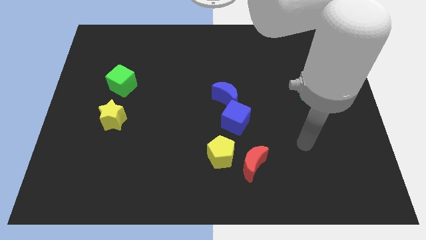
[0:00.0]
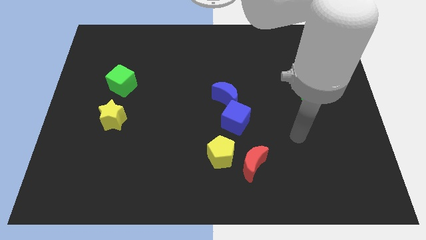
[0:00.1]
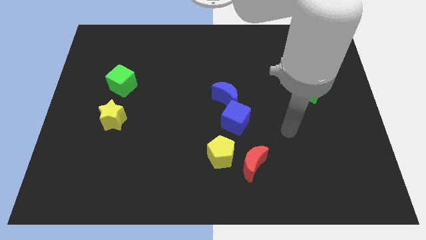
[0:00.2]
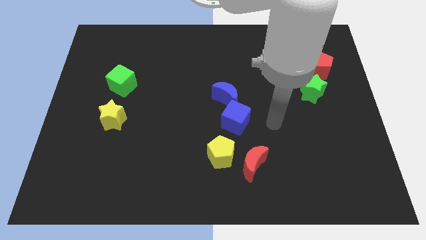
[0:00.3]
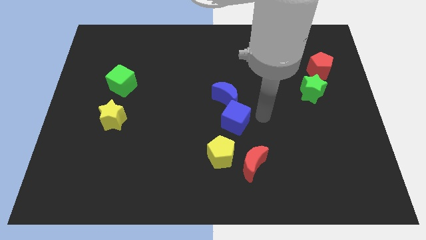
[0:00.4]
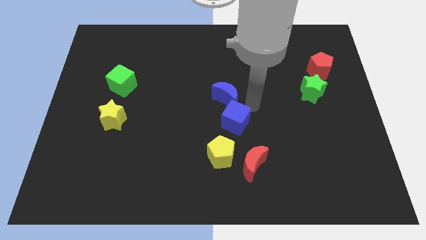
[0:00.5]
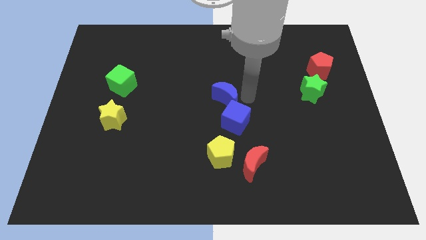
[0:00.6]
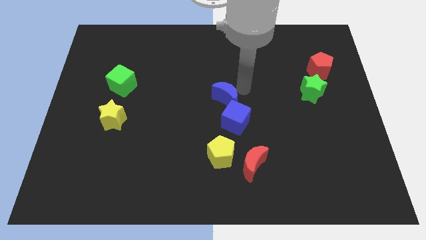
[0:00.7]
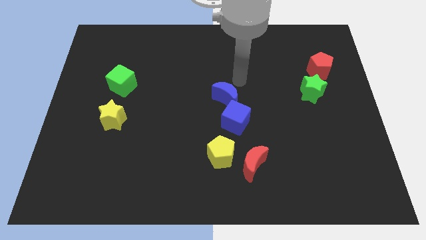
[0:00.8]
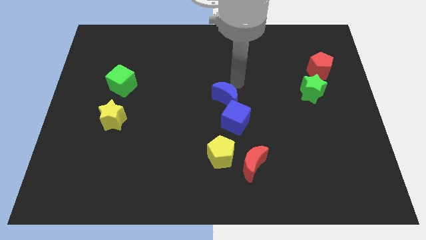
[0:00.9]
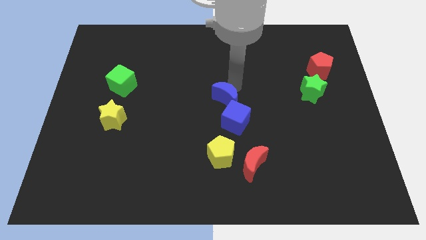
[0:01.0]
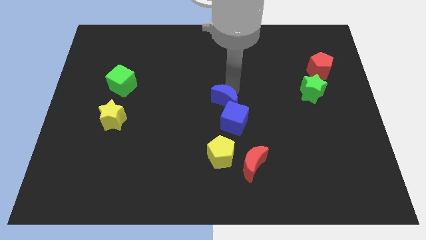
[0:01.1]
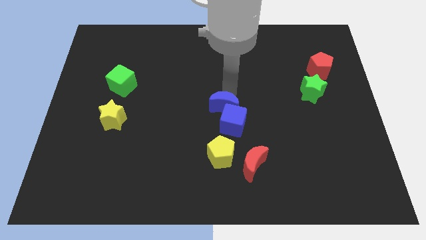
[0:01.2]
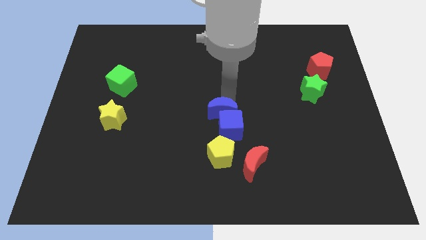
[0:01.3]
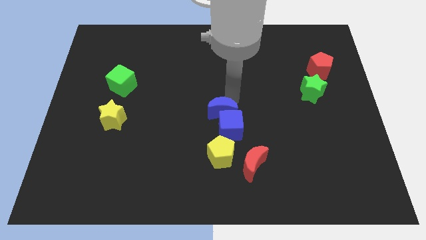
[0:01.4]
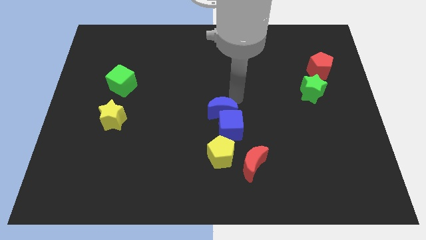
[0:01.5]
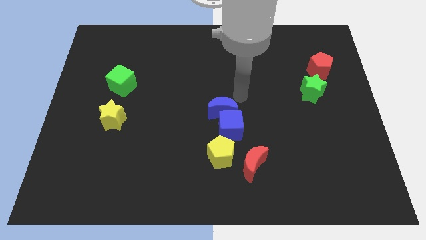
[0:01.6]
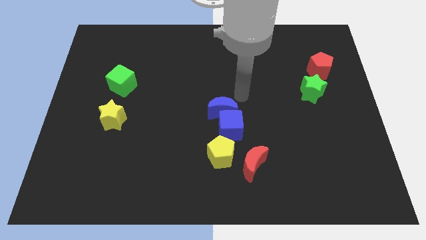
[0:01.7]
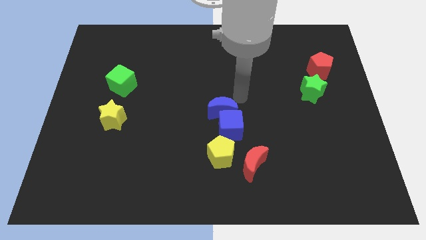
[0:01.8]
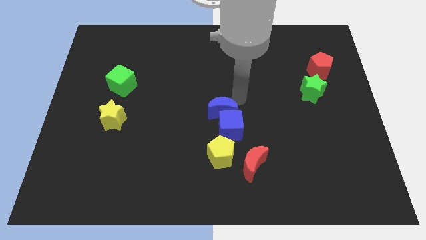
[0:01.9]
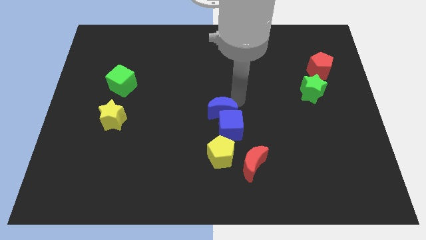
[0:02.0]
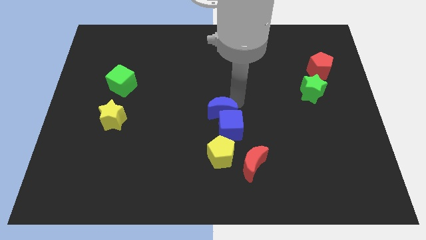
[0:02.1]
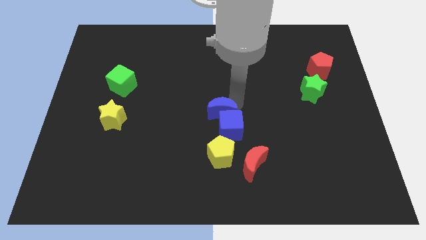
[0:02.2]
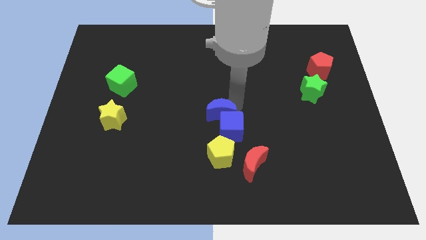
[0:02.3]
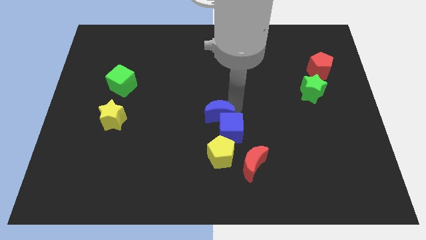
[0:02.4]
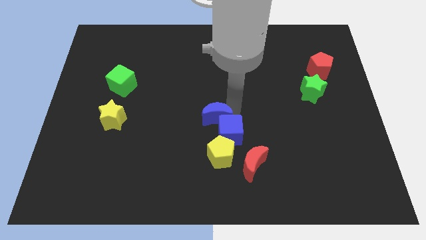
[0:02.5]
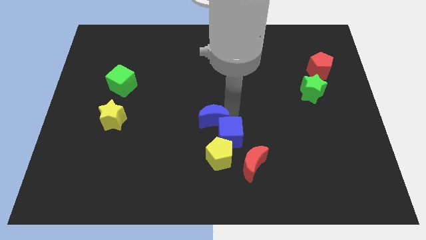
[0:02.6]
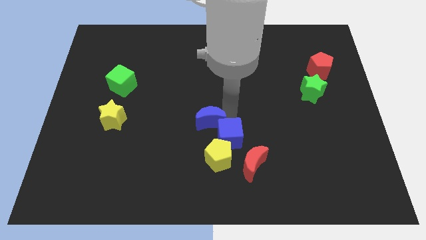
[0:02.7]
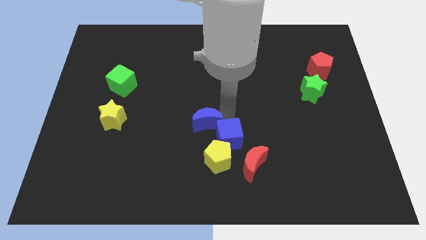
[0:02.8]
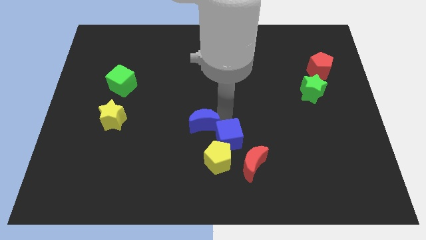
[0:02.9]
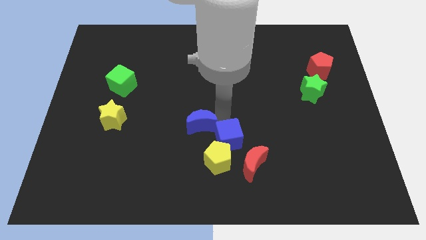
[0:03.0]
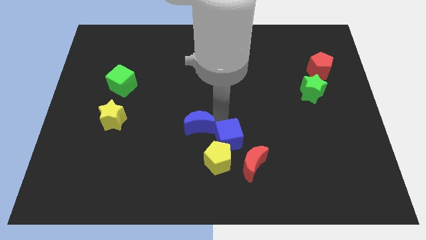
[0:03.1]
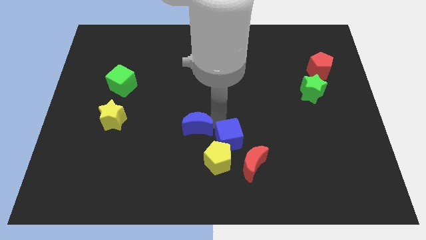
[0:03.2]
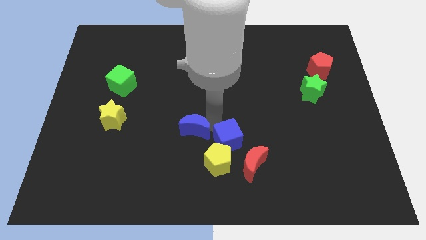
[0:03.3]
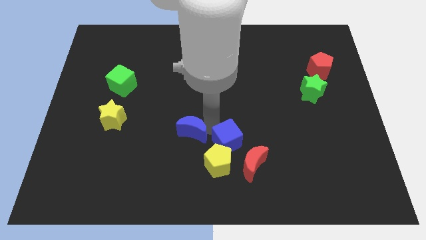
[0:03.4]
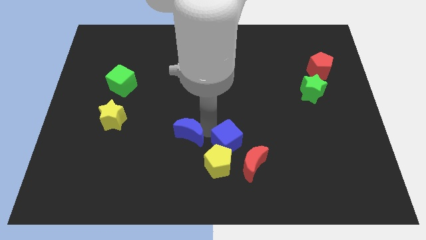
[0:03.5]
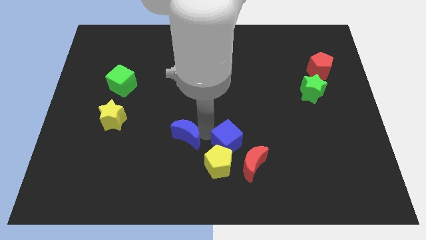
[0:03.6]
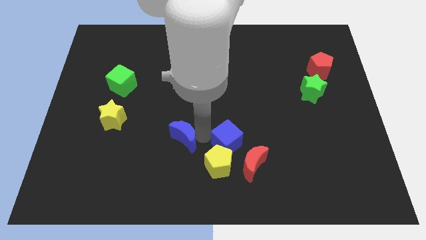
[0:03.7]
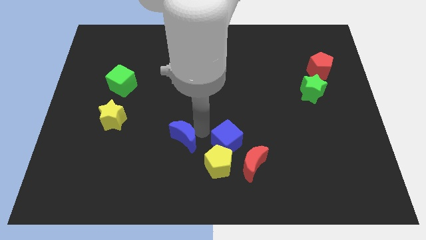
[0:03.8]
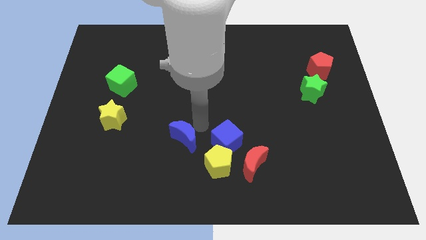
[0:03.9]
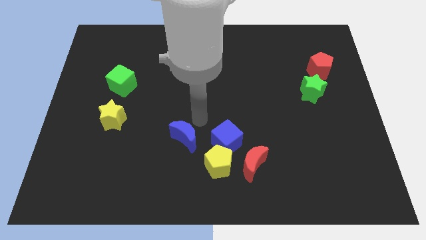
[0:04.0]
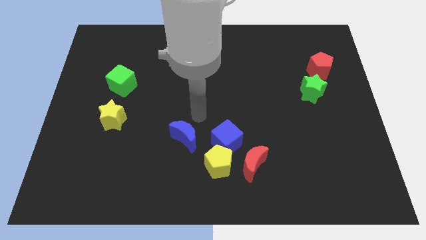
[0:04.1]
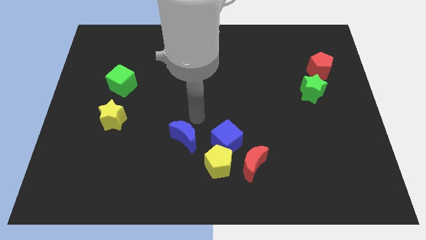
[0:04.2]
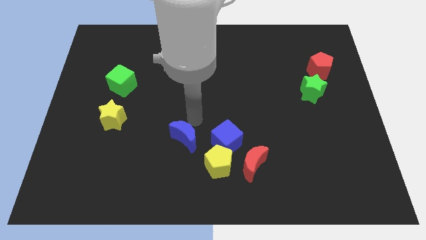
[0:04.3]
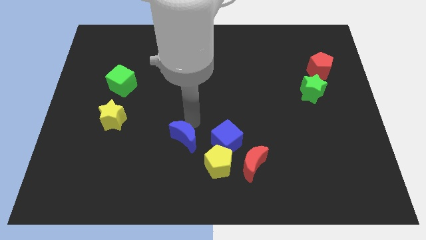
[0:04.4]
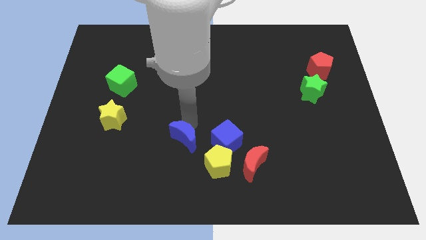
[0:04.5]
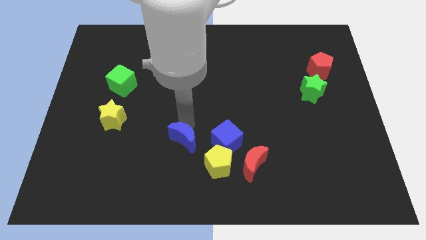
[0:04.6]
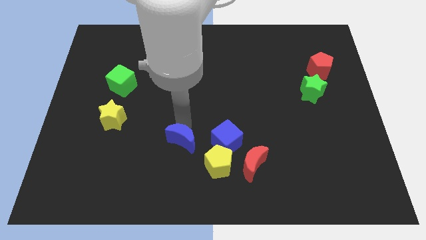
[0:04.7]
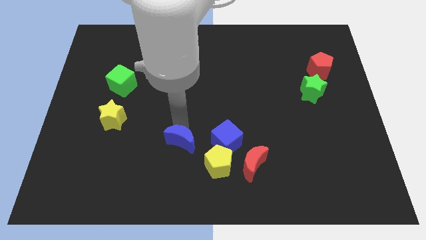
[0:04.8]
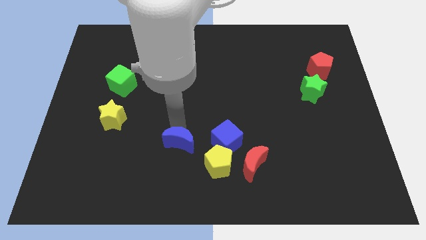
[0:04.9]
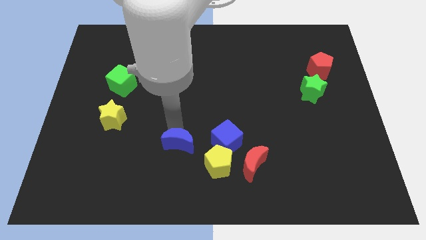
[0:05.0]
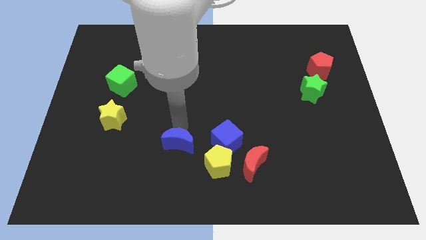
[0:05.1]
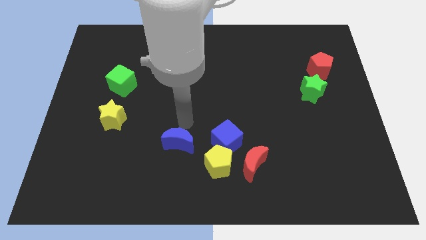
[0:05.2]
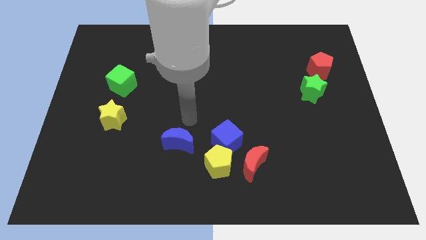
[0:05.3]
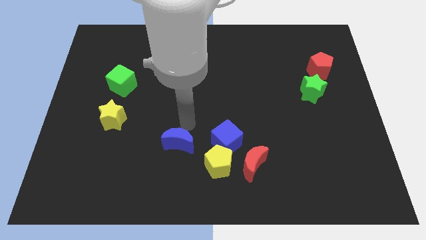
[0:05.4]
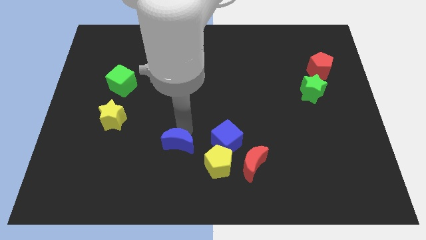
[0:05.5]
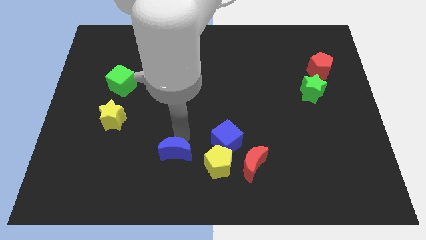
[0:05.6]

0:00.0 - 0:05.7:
push the blue moon to the left side of the yellow pentagon

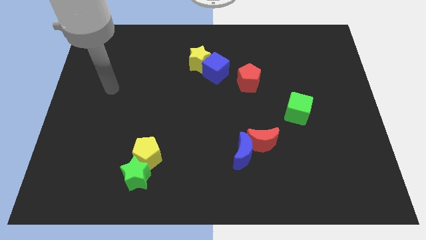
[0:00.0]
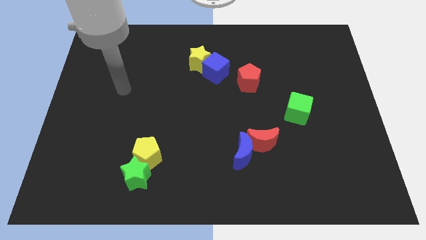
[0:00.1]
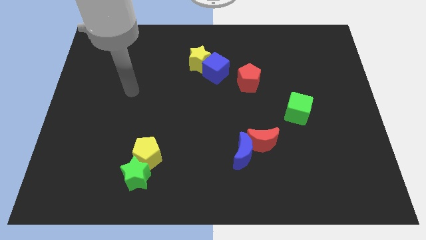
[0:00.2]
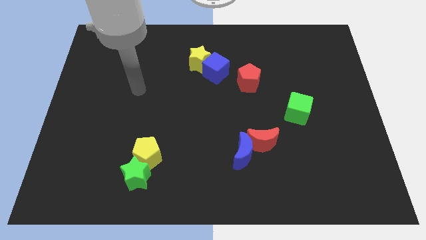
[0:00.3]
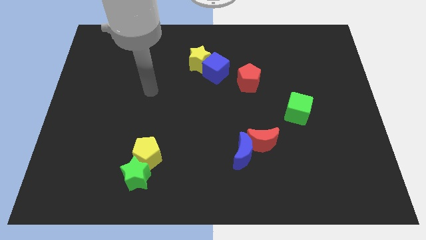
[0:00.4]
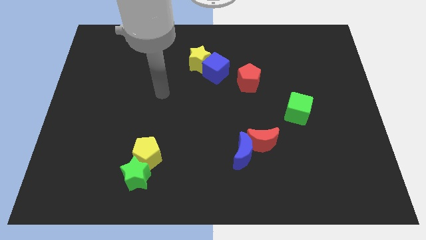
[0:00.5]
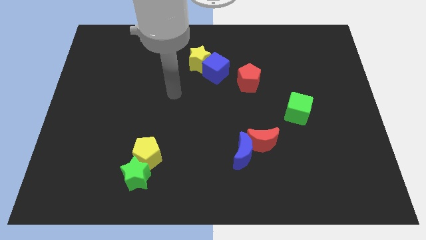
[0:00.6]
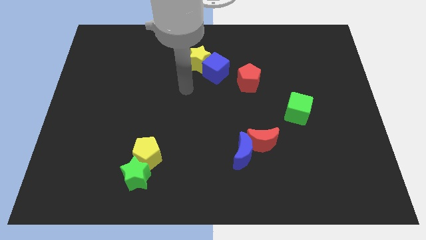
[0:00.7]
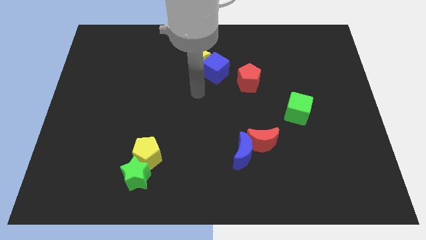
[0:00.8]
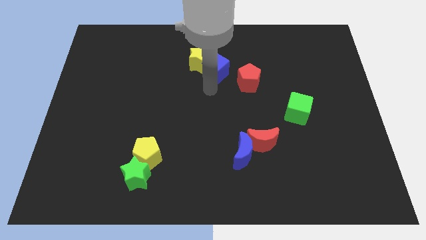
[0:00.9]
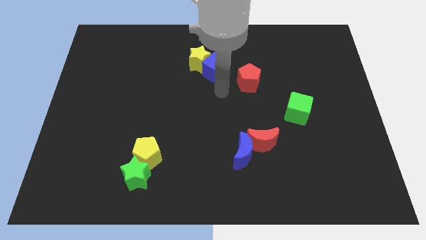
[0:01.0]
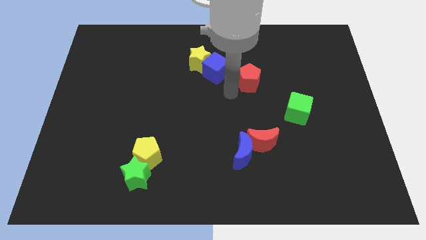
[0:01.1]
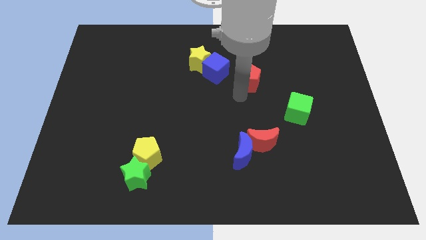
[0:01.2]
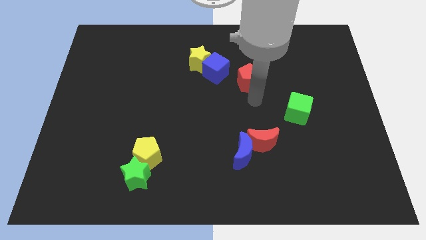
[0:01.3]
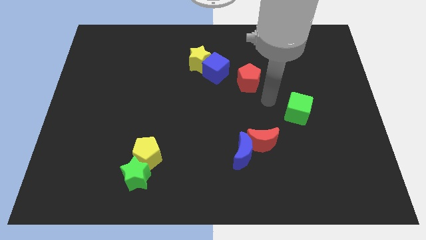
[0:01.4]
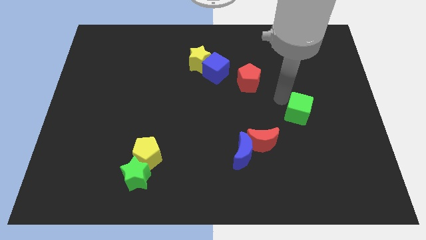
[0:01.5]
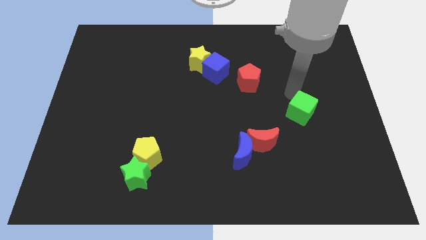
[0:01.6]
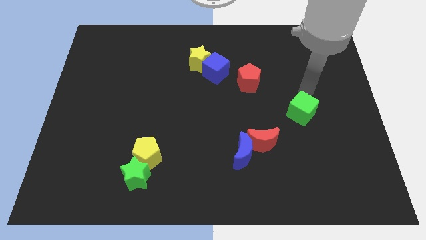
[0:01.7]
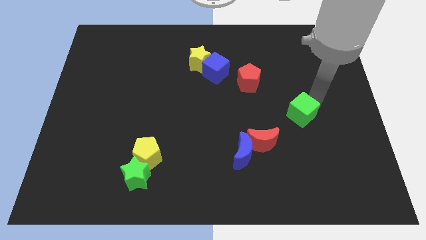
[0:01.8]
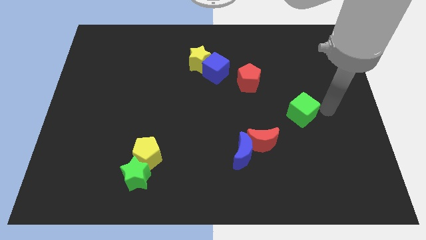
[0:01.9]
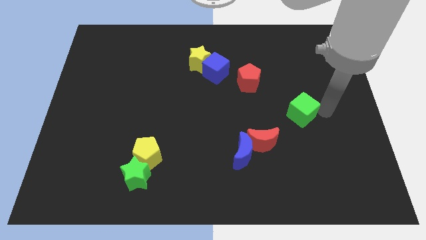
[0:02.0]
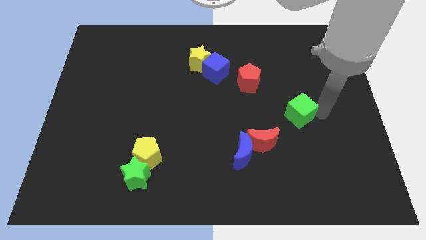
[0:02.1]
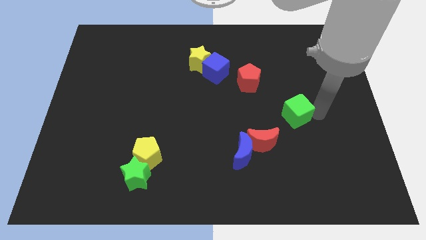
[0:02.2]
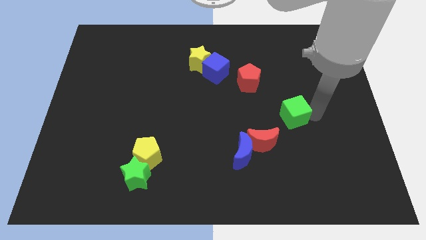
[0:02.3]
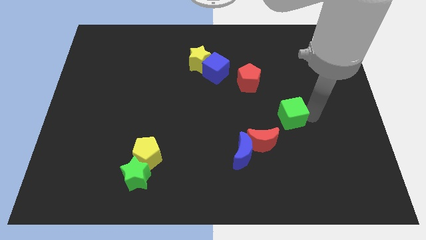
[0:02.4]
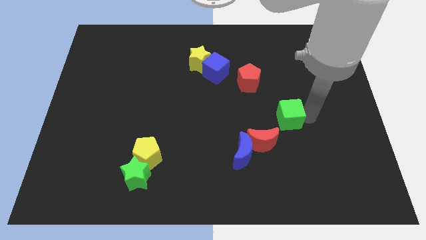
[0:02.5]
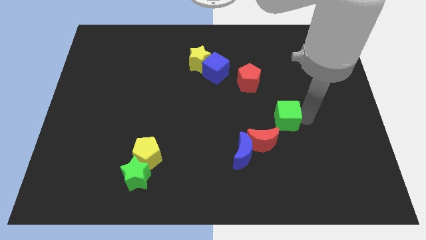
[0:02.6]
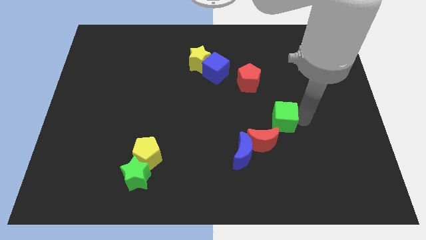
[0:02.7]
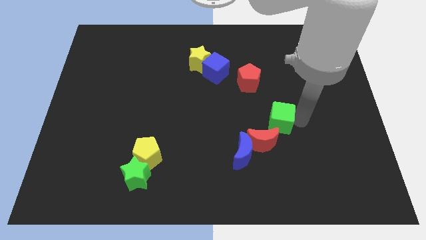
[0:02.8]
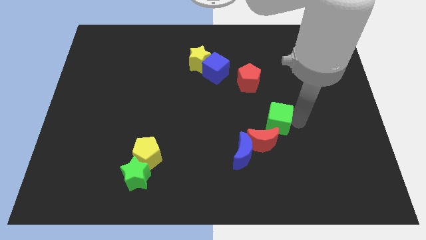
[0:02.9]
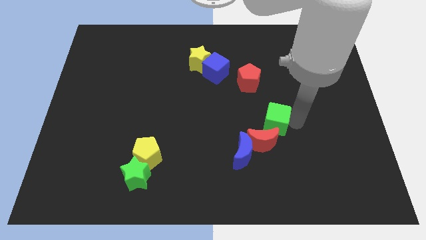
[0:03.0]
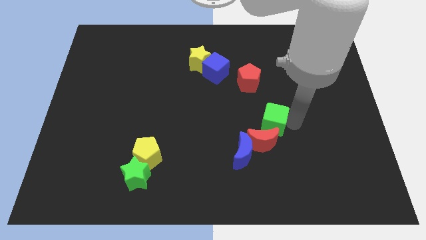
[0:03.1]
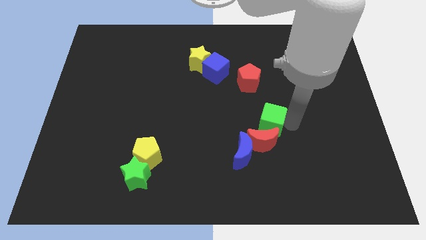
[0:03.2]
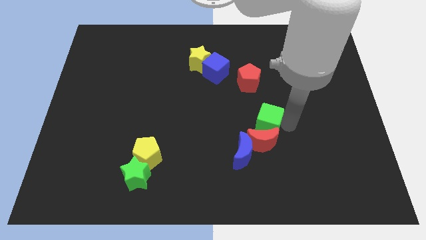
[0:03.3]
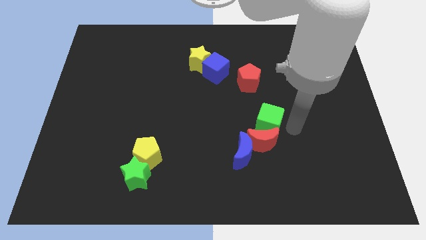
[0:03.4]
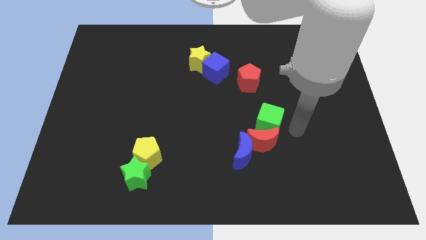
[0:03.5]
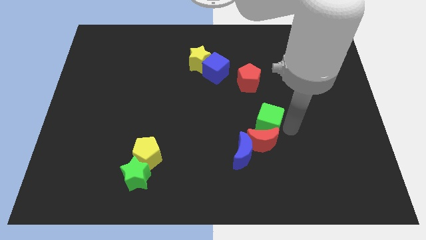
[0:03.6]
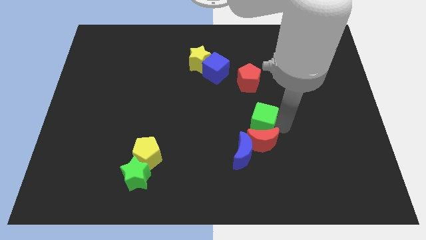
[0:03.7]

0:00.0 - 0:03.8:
slide the green cube to the top of the blue moon
